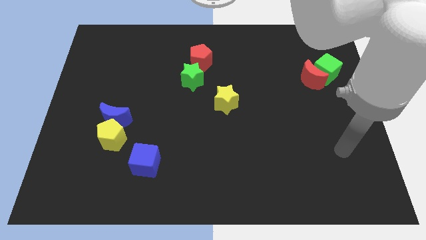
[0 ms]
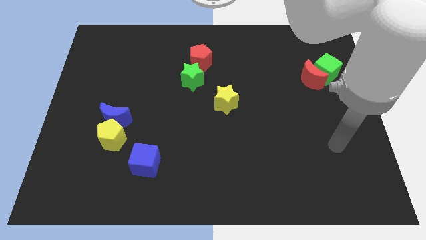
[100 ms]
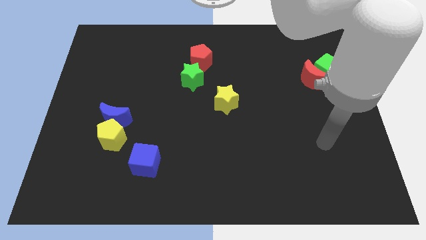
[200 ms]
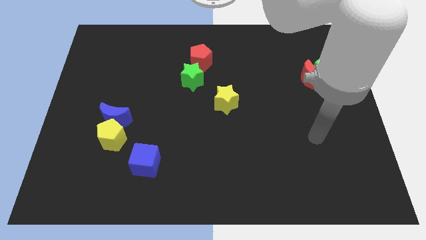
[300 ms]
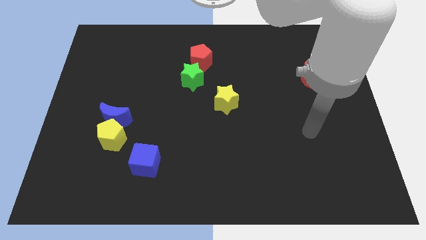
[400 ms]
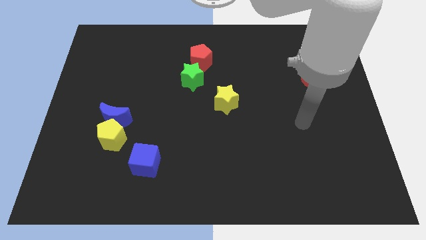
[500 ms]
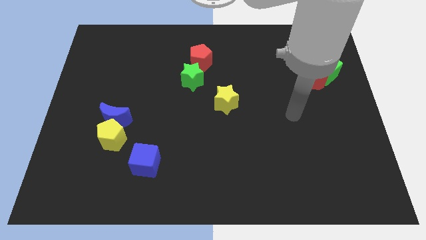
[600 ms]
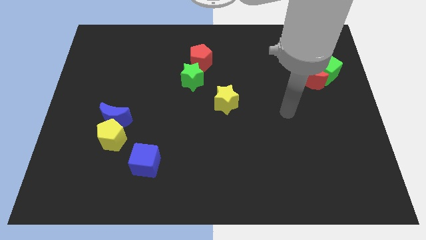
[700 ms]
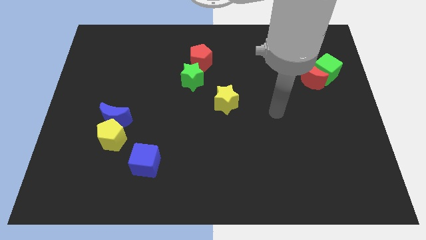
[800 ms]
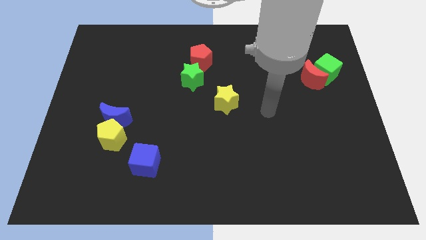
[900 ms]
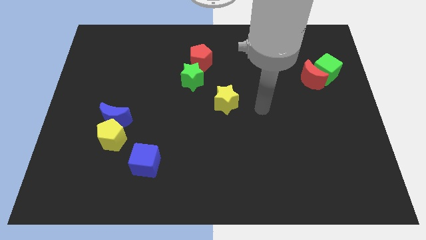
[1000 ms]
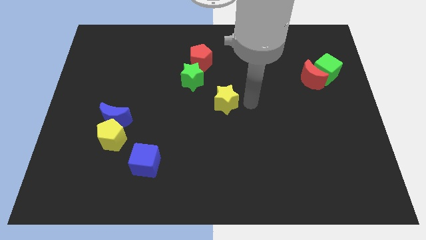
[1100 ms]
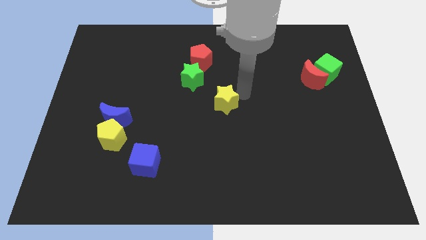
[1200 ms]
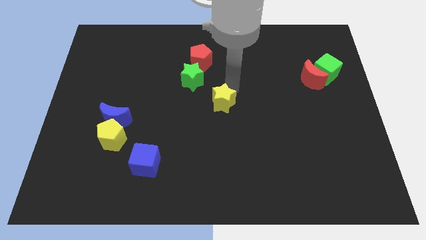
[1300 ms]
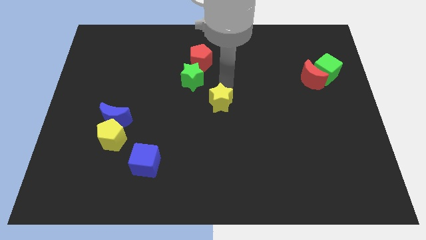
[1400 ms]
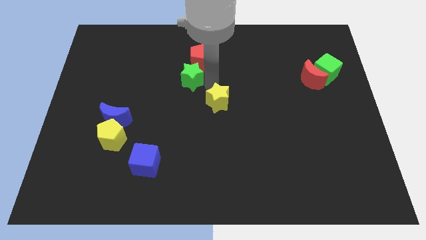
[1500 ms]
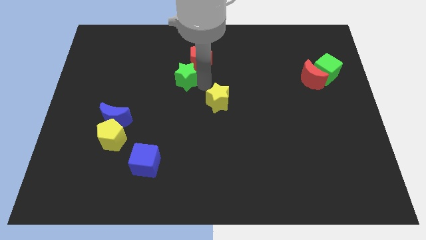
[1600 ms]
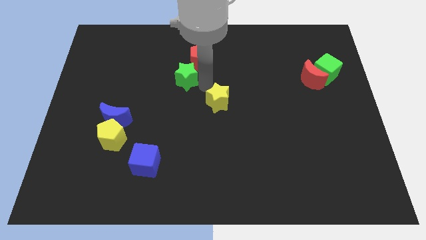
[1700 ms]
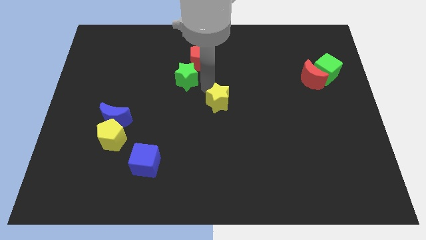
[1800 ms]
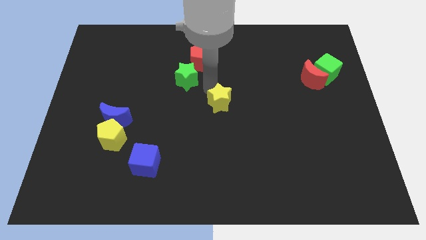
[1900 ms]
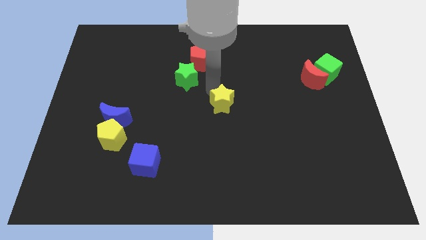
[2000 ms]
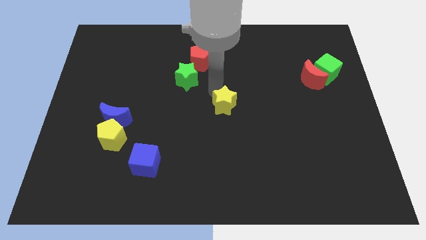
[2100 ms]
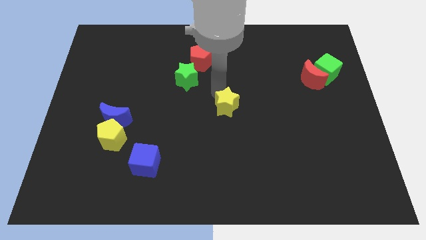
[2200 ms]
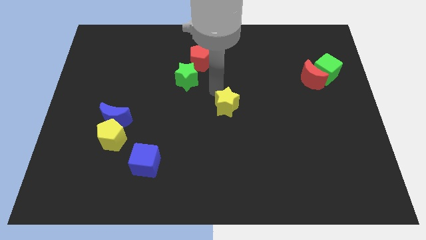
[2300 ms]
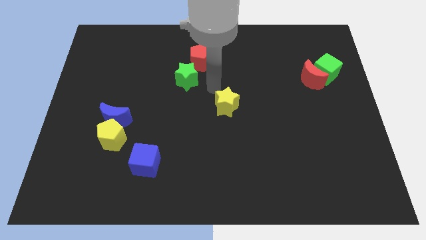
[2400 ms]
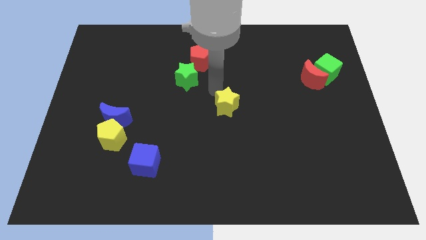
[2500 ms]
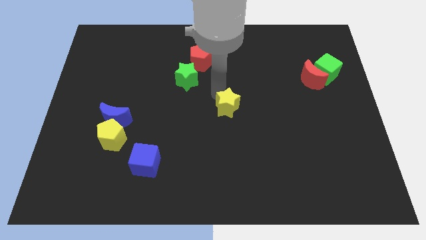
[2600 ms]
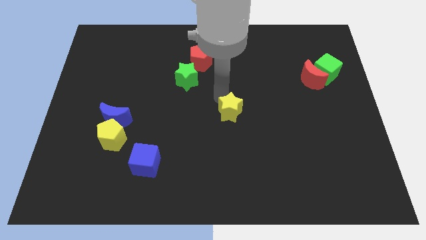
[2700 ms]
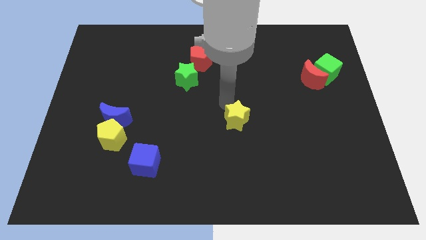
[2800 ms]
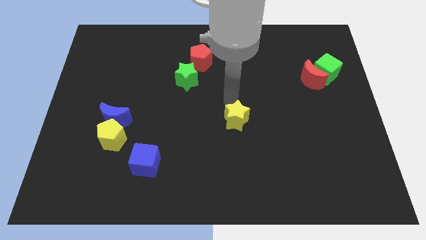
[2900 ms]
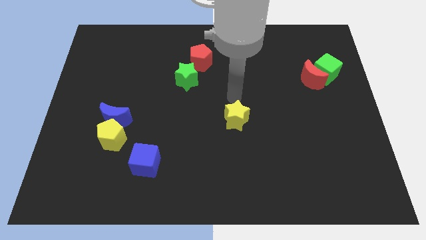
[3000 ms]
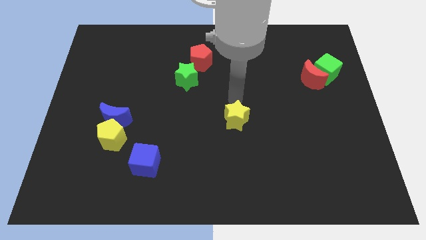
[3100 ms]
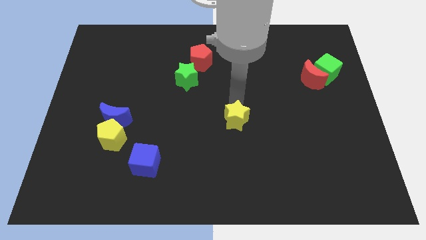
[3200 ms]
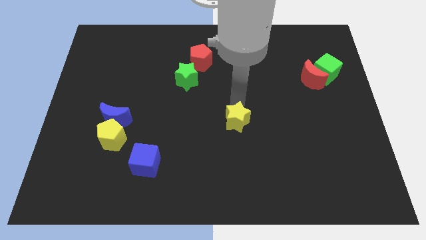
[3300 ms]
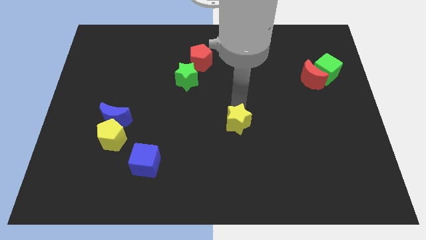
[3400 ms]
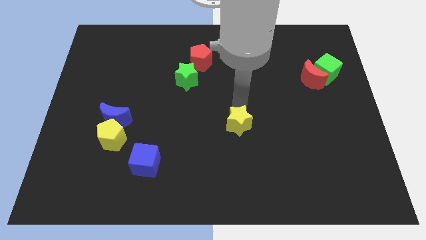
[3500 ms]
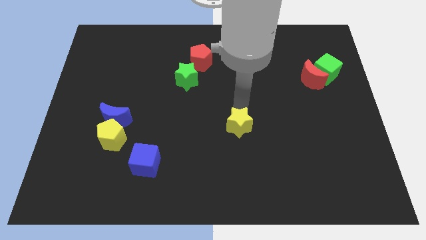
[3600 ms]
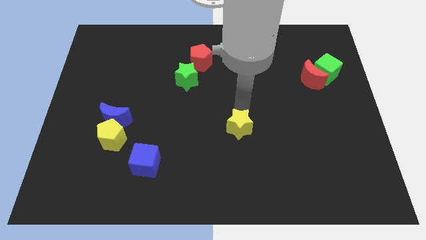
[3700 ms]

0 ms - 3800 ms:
push the yellow star downwards a little

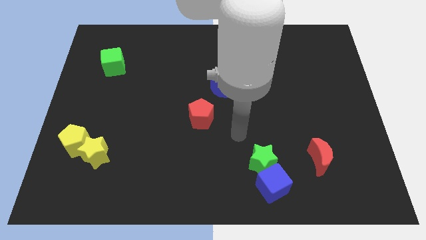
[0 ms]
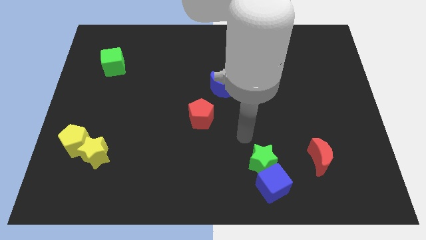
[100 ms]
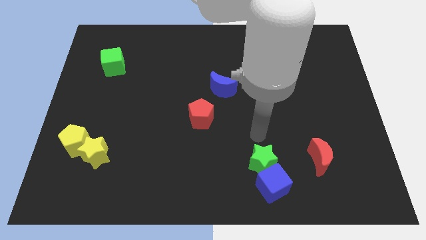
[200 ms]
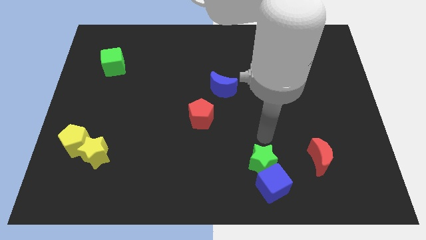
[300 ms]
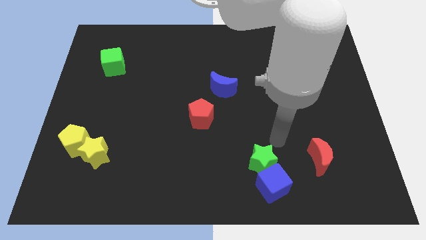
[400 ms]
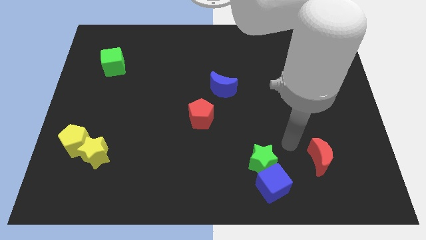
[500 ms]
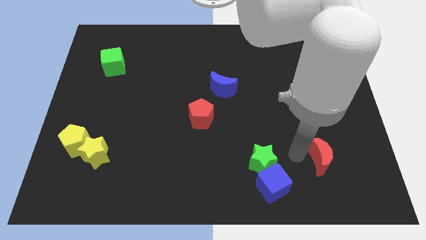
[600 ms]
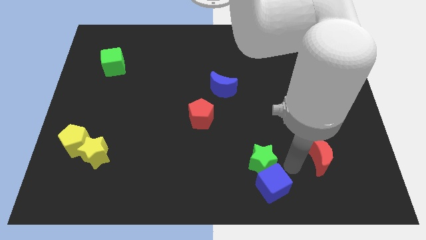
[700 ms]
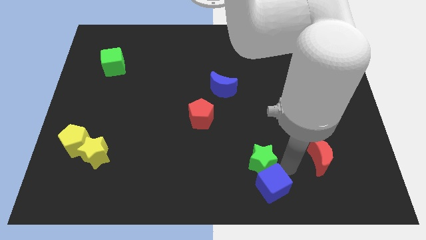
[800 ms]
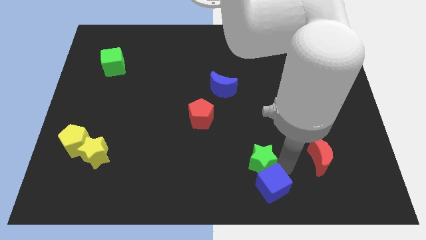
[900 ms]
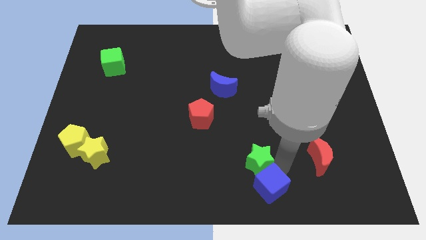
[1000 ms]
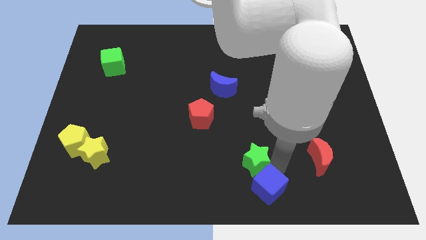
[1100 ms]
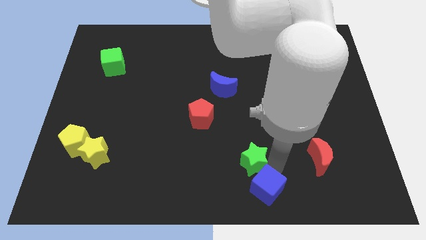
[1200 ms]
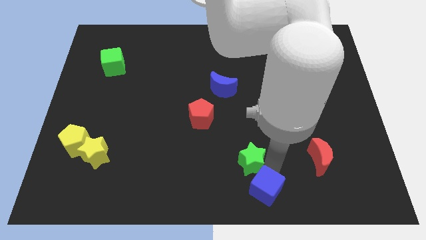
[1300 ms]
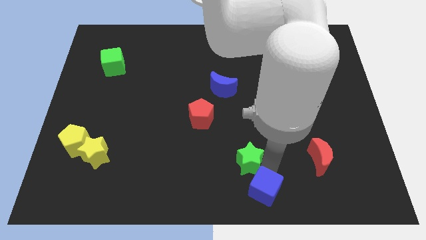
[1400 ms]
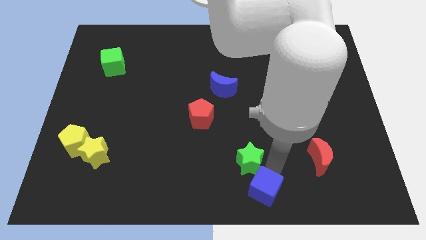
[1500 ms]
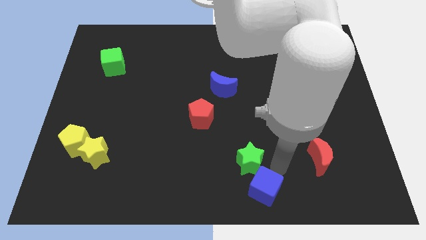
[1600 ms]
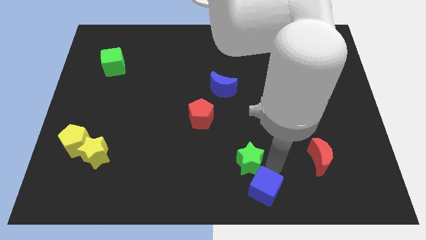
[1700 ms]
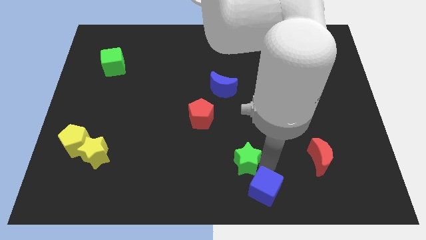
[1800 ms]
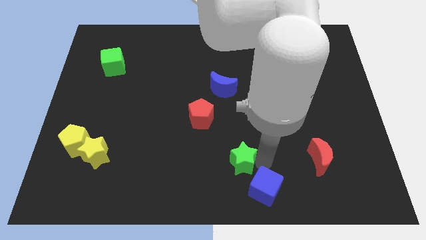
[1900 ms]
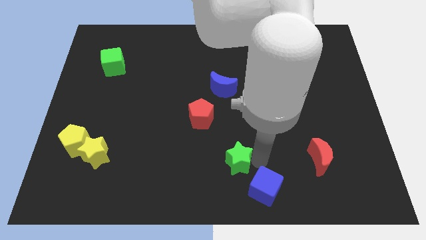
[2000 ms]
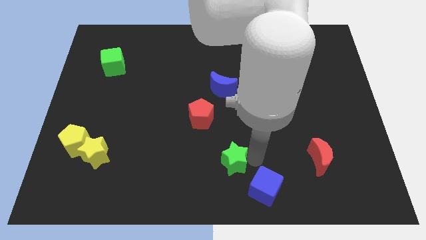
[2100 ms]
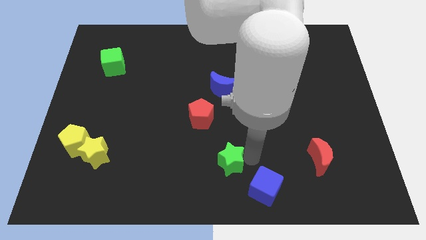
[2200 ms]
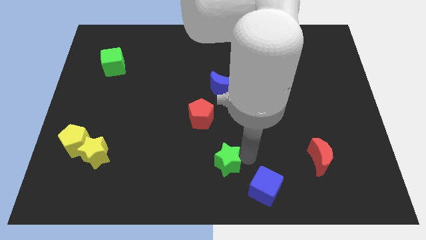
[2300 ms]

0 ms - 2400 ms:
slightly push the green star to the left

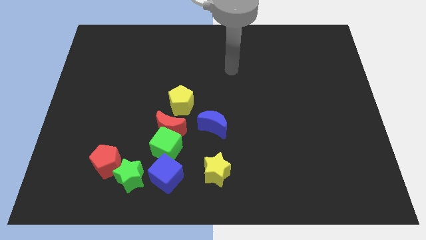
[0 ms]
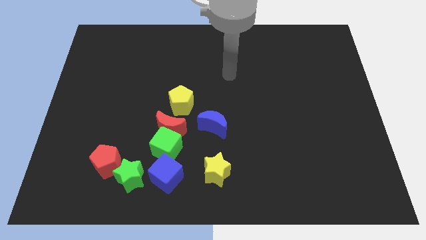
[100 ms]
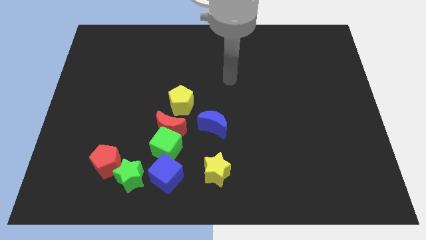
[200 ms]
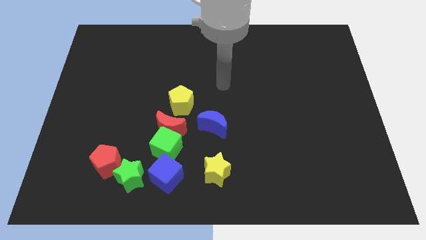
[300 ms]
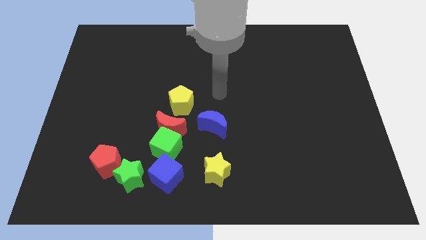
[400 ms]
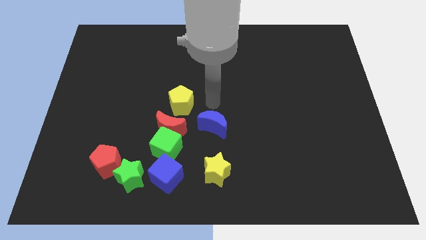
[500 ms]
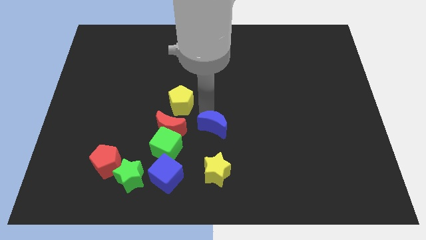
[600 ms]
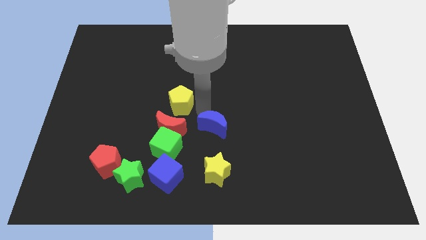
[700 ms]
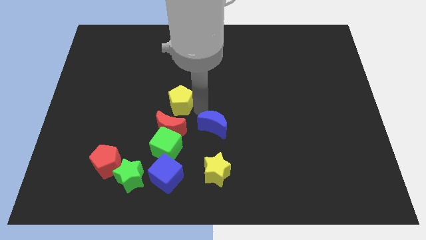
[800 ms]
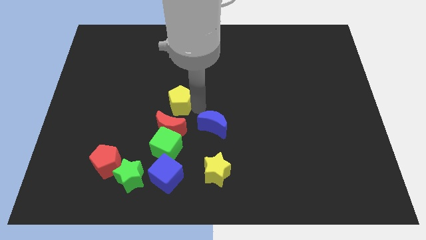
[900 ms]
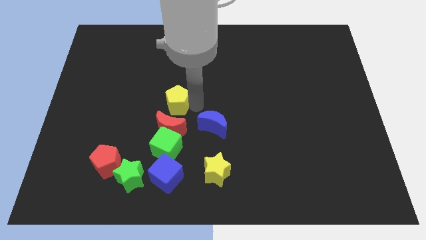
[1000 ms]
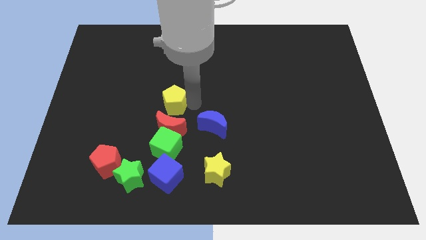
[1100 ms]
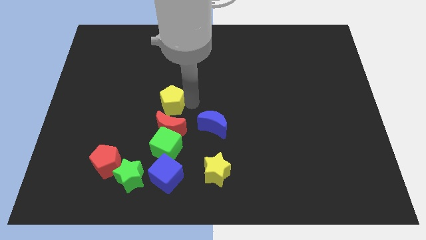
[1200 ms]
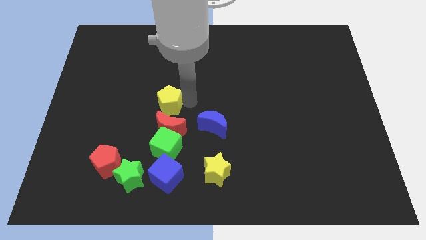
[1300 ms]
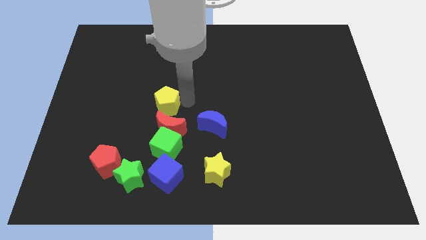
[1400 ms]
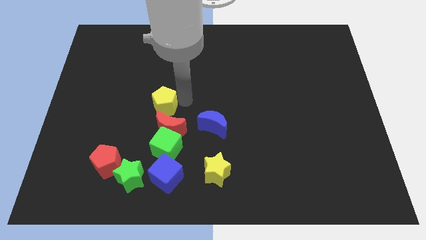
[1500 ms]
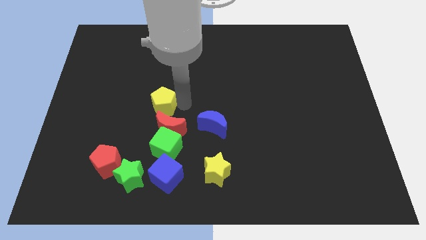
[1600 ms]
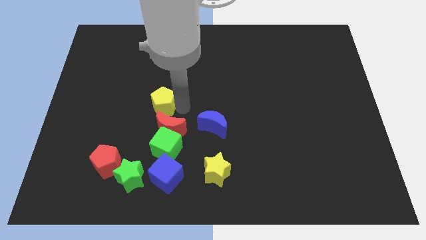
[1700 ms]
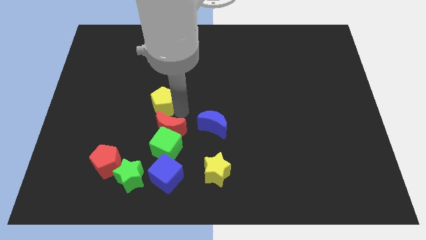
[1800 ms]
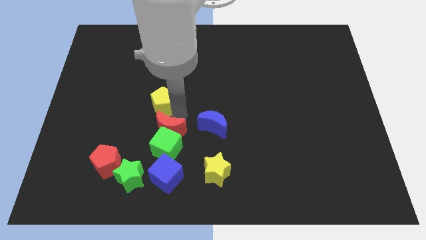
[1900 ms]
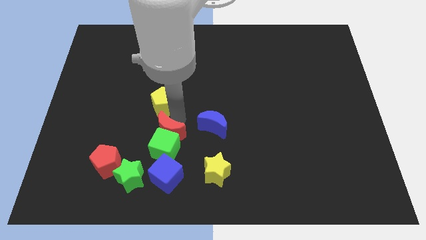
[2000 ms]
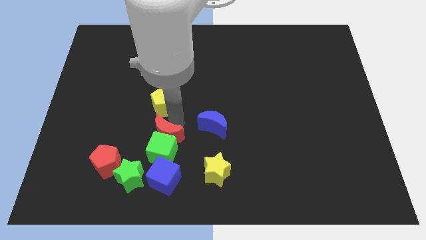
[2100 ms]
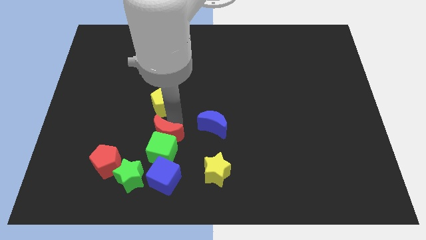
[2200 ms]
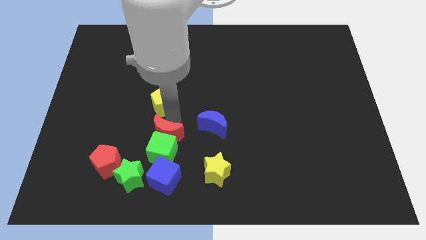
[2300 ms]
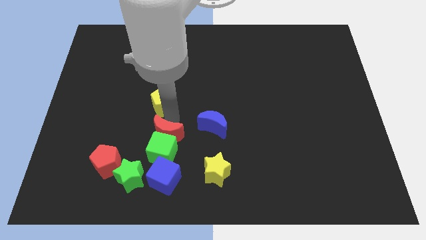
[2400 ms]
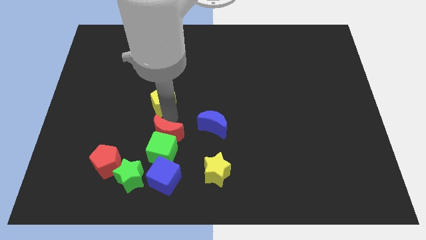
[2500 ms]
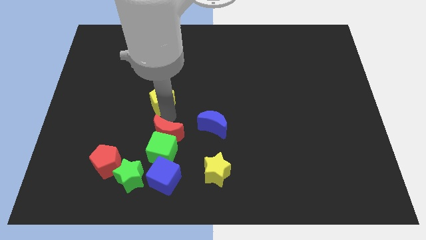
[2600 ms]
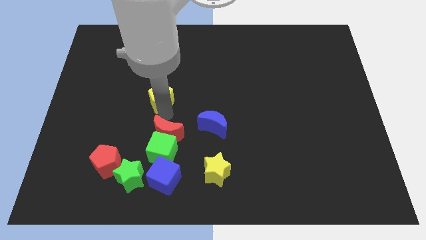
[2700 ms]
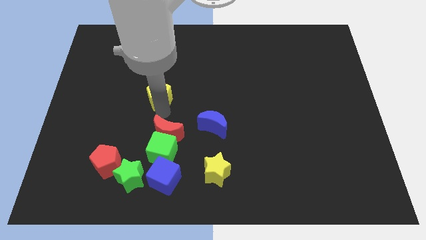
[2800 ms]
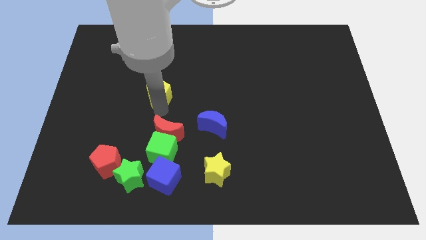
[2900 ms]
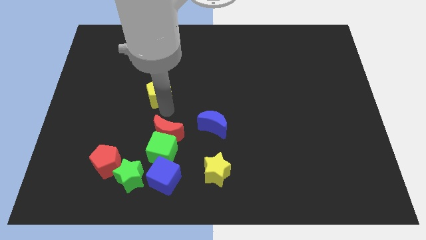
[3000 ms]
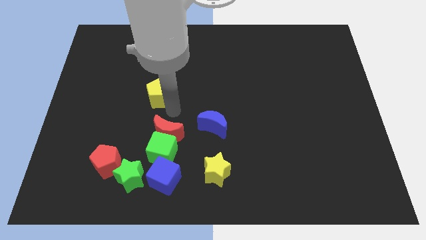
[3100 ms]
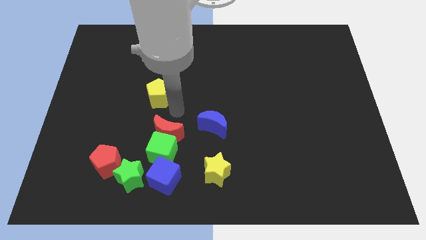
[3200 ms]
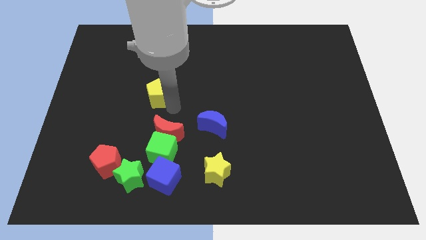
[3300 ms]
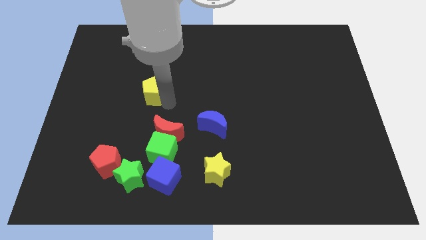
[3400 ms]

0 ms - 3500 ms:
move the yellow pentagon diagonally upwards and to the left a little bit
